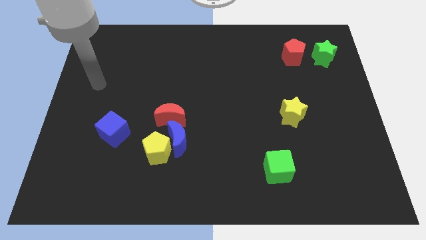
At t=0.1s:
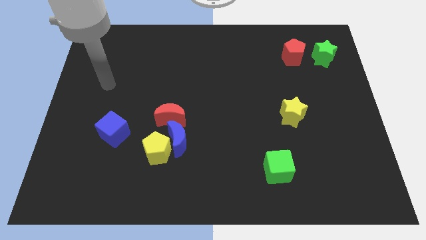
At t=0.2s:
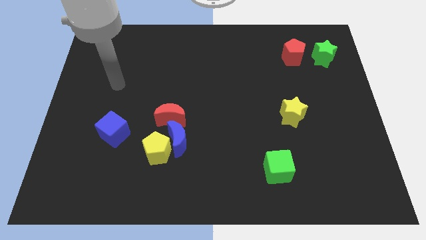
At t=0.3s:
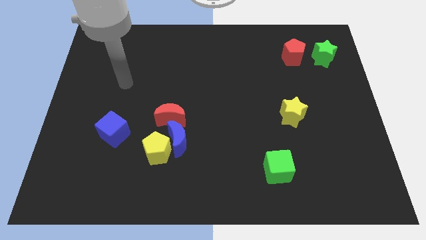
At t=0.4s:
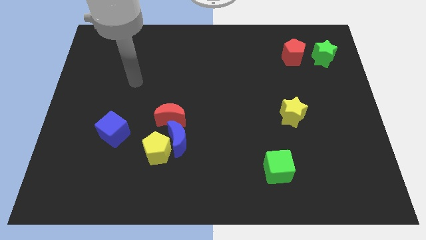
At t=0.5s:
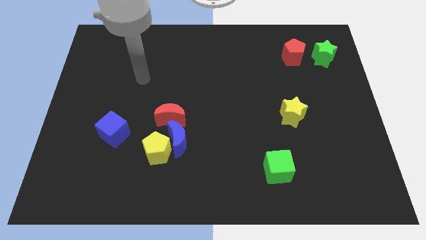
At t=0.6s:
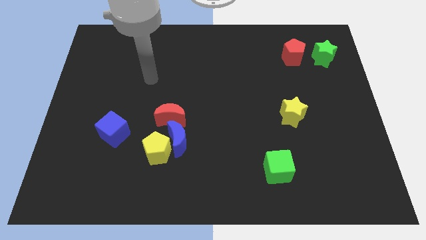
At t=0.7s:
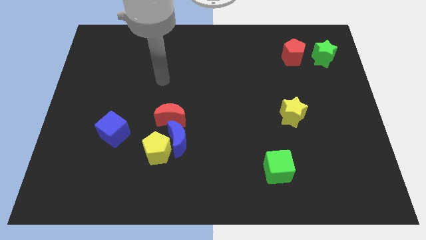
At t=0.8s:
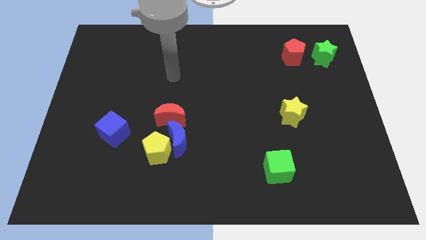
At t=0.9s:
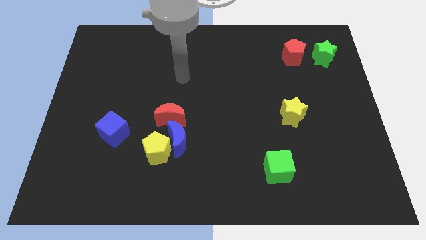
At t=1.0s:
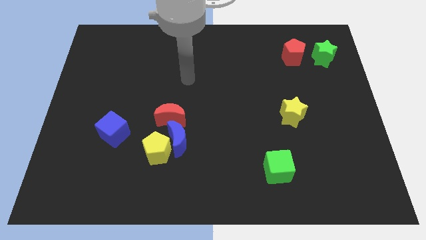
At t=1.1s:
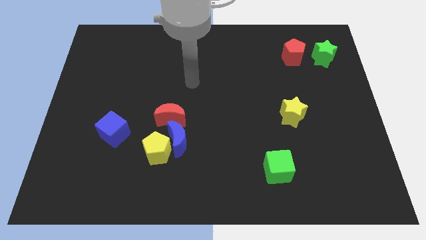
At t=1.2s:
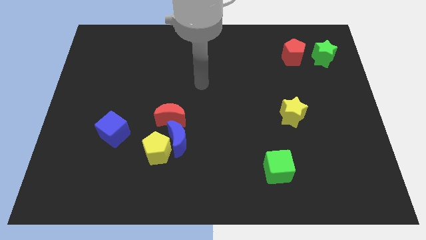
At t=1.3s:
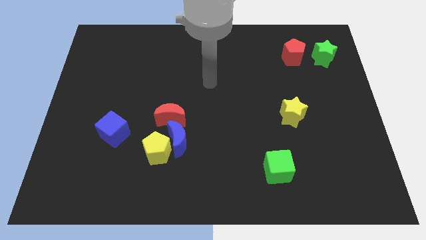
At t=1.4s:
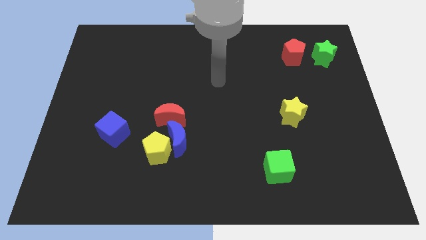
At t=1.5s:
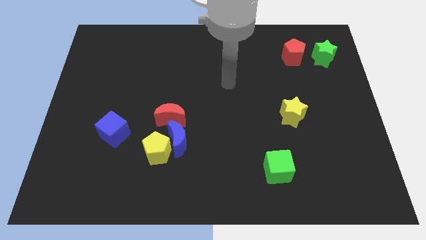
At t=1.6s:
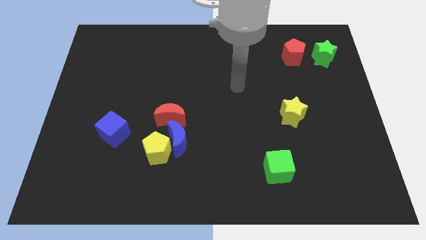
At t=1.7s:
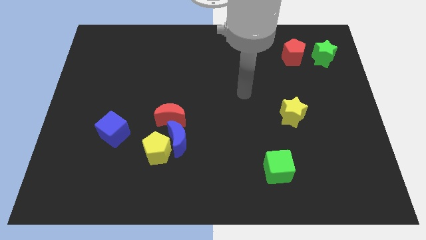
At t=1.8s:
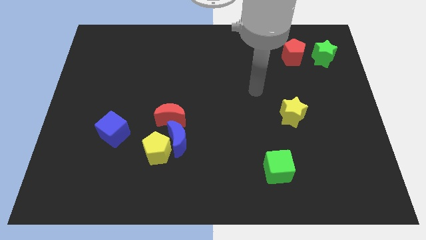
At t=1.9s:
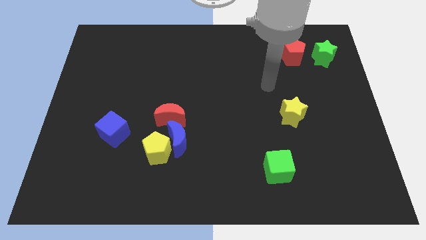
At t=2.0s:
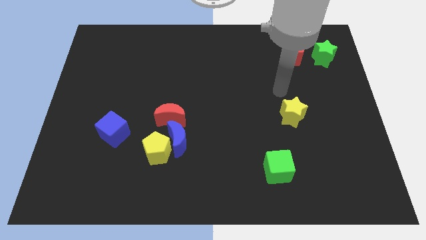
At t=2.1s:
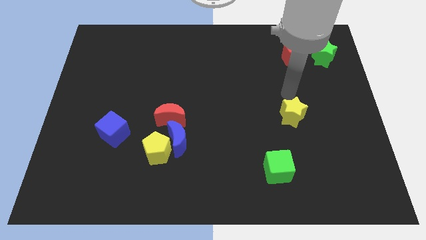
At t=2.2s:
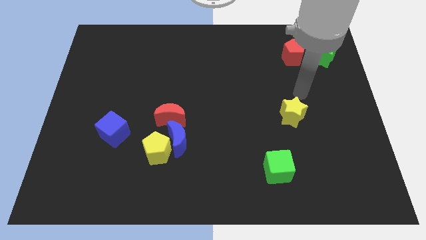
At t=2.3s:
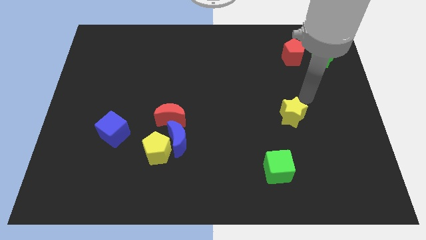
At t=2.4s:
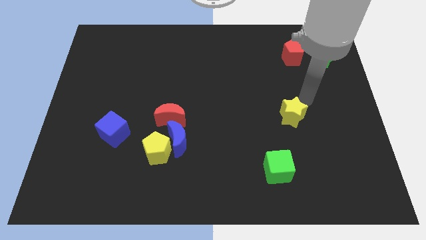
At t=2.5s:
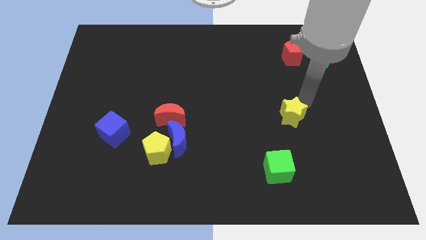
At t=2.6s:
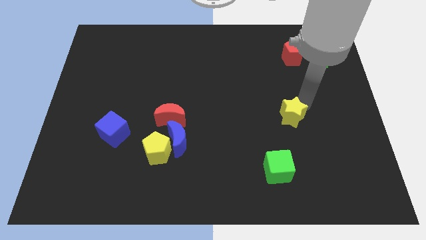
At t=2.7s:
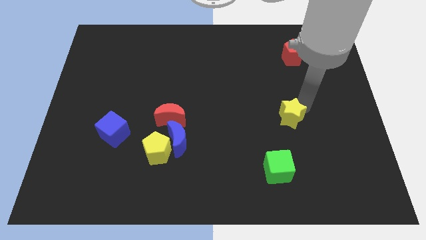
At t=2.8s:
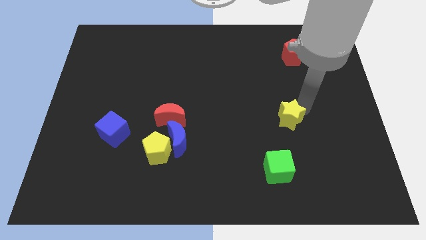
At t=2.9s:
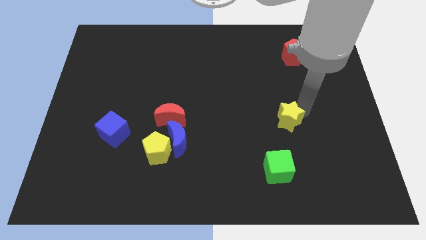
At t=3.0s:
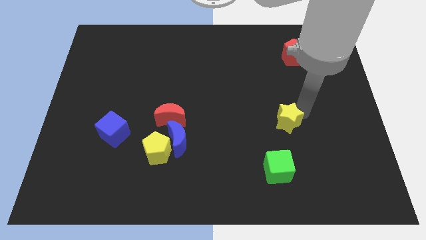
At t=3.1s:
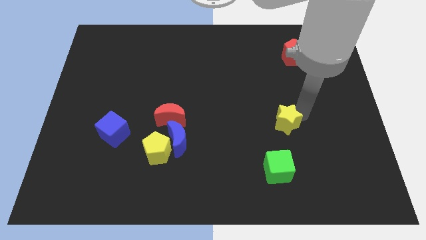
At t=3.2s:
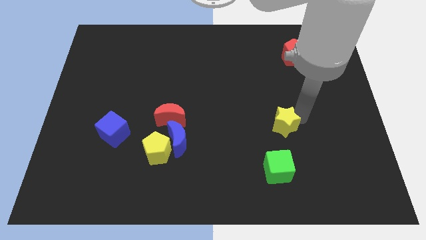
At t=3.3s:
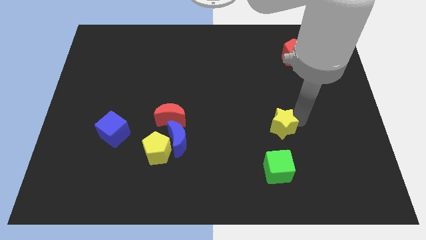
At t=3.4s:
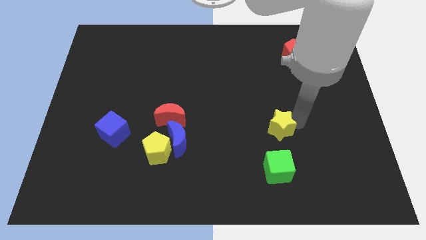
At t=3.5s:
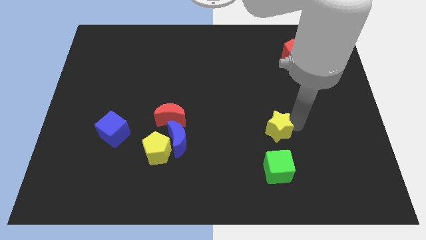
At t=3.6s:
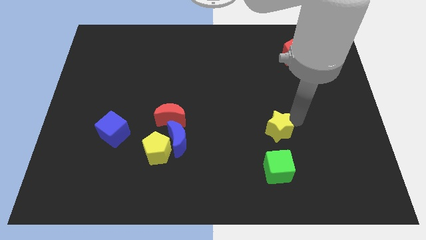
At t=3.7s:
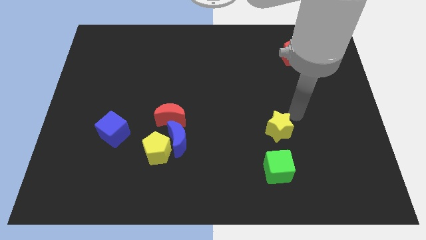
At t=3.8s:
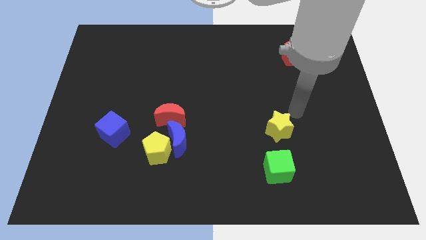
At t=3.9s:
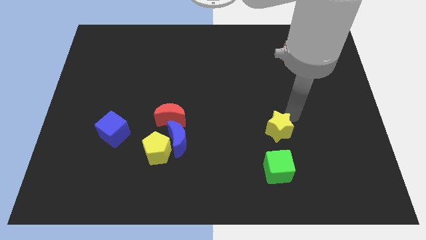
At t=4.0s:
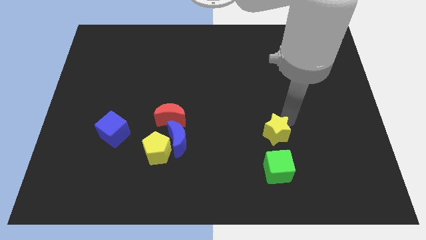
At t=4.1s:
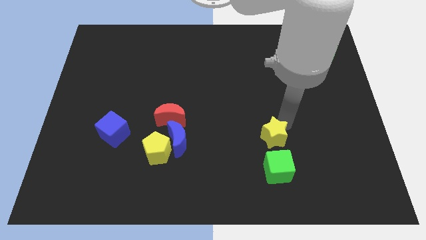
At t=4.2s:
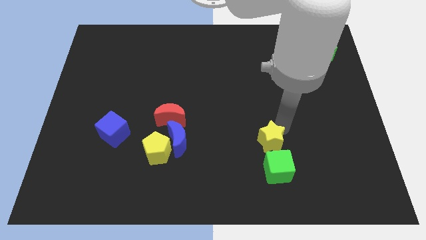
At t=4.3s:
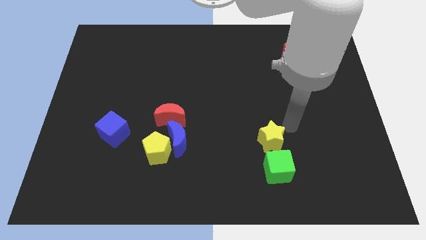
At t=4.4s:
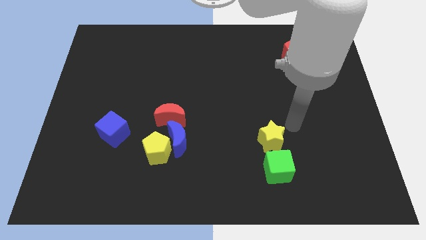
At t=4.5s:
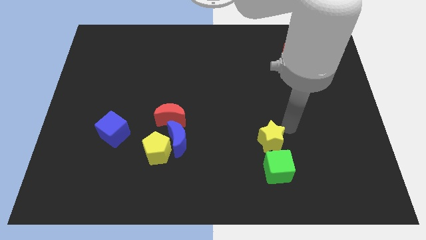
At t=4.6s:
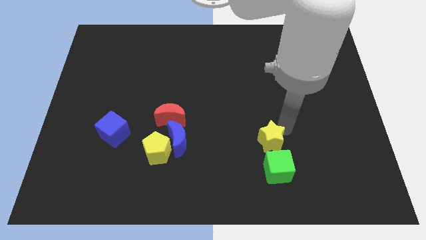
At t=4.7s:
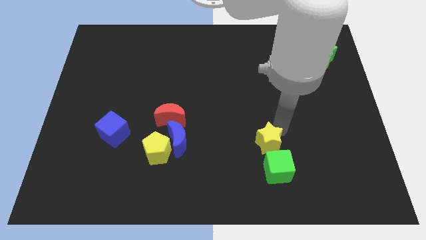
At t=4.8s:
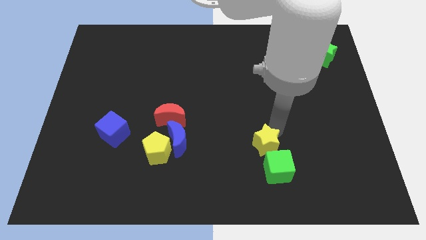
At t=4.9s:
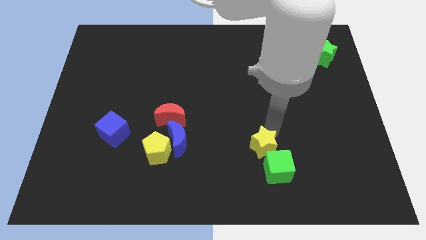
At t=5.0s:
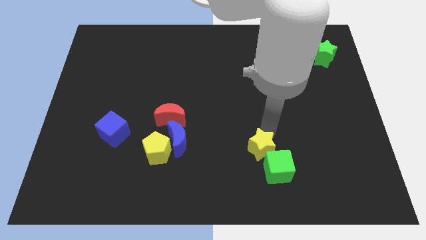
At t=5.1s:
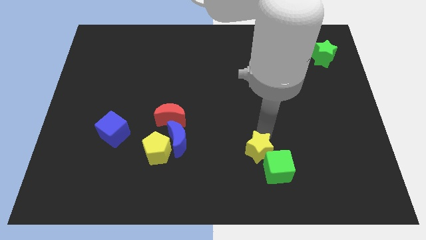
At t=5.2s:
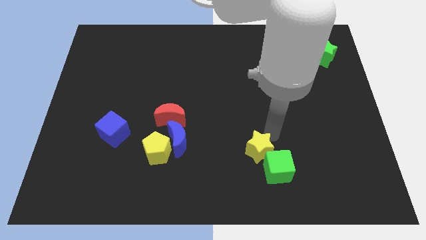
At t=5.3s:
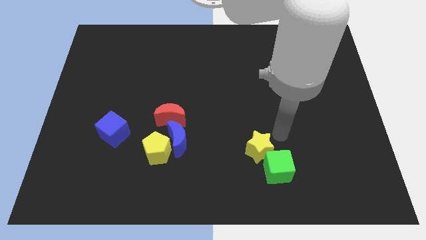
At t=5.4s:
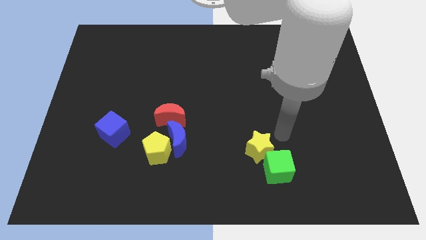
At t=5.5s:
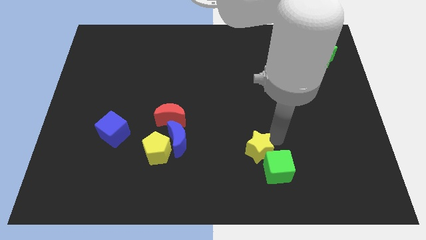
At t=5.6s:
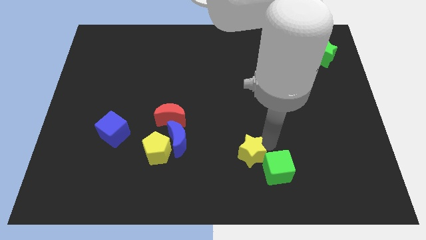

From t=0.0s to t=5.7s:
move the yellow star to the left of the green cube

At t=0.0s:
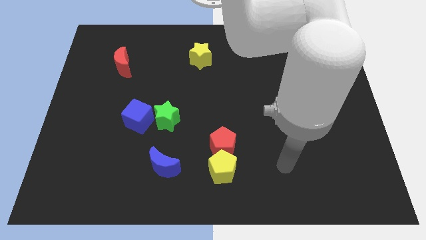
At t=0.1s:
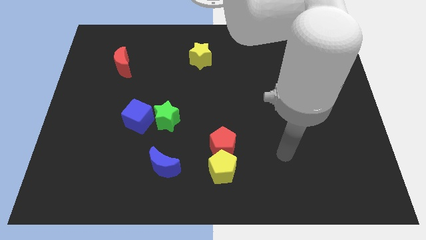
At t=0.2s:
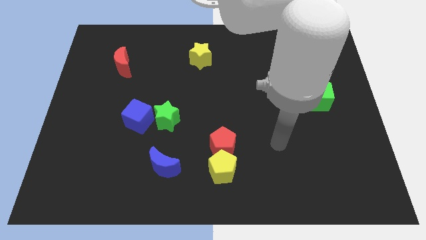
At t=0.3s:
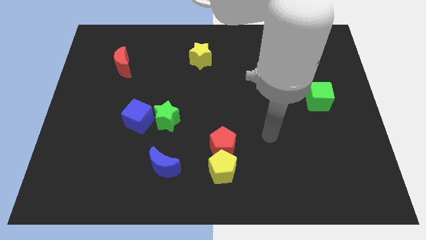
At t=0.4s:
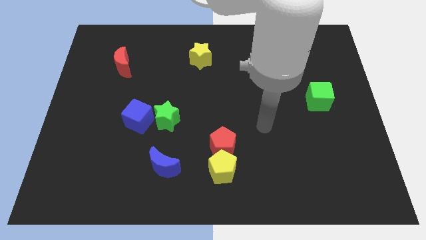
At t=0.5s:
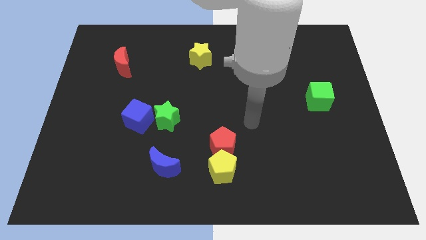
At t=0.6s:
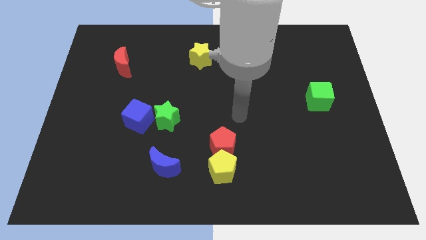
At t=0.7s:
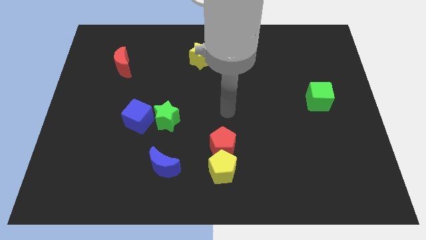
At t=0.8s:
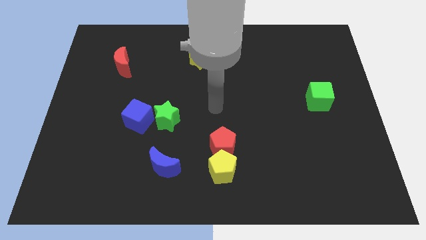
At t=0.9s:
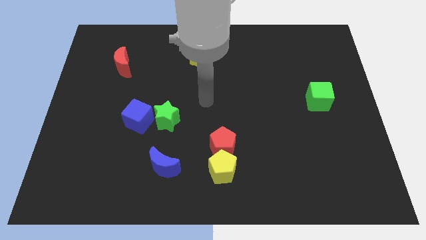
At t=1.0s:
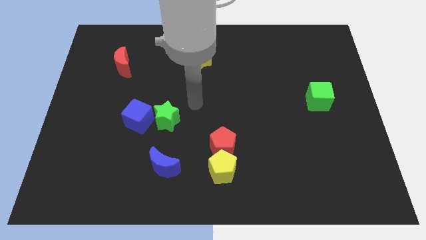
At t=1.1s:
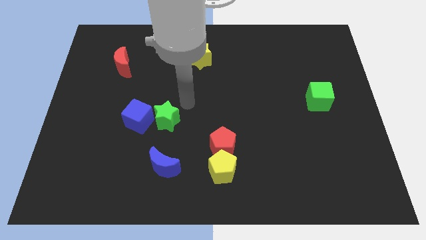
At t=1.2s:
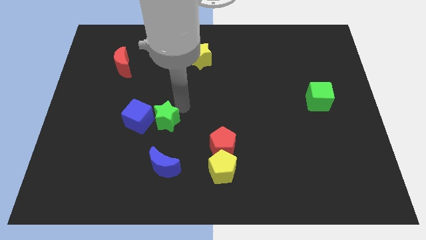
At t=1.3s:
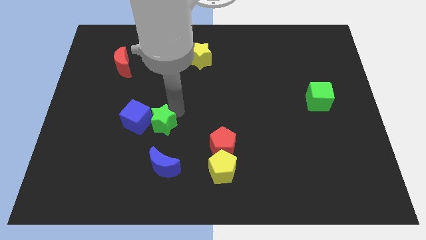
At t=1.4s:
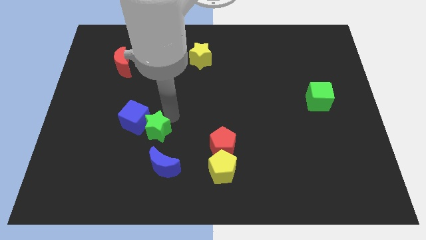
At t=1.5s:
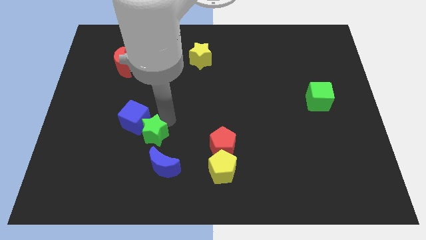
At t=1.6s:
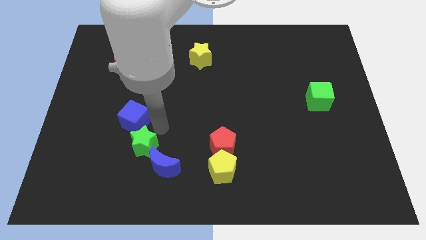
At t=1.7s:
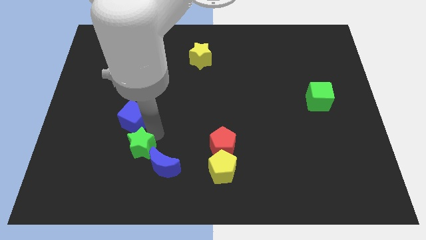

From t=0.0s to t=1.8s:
put the green star left of the blue moon
